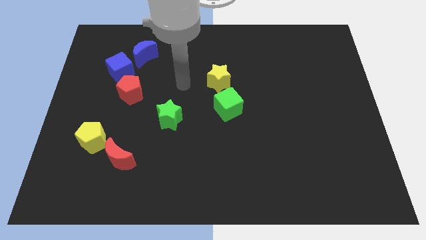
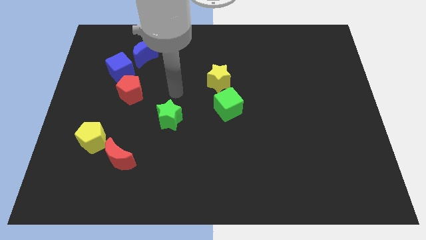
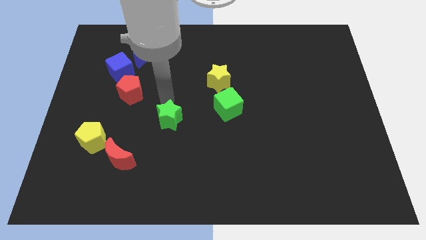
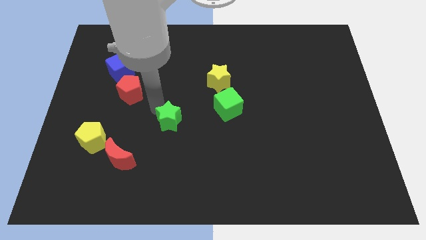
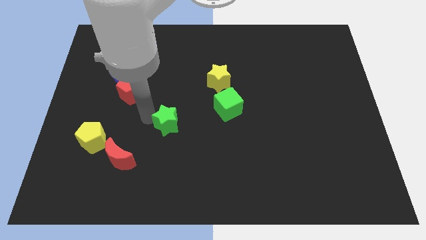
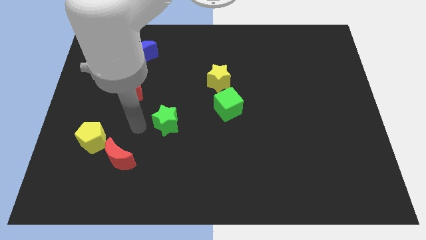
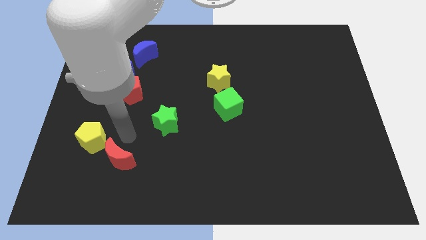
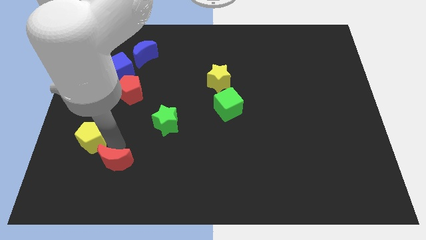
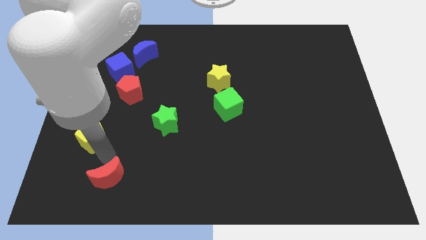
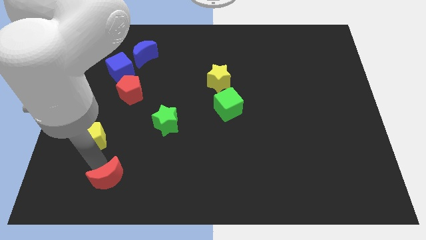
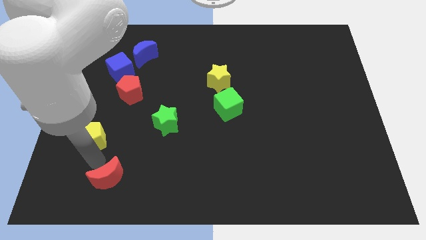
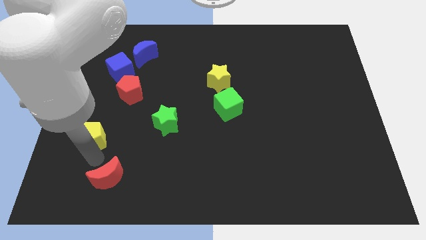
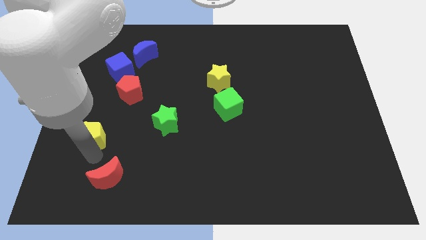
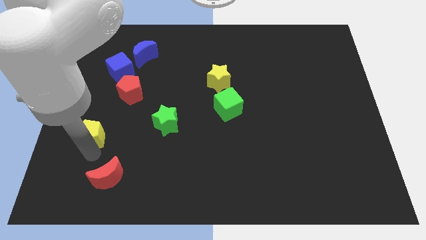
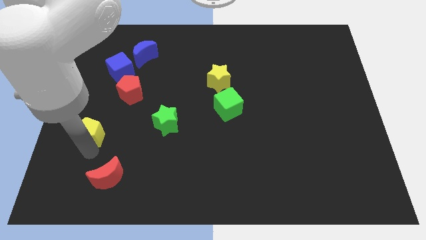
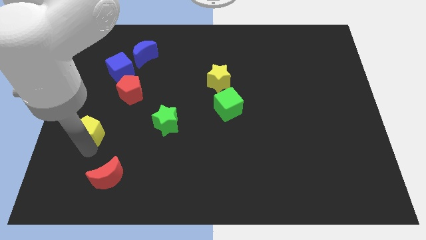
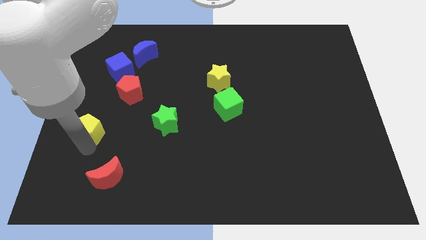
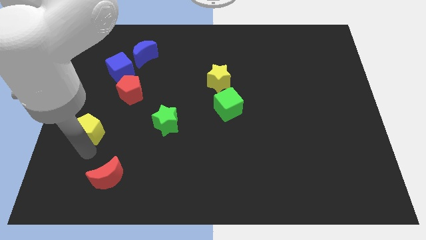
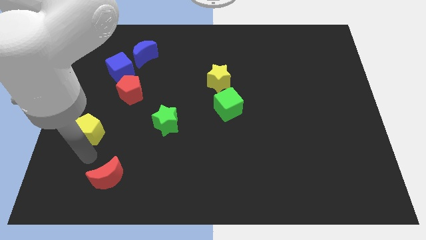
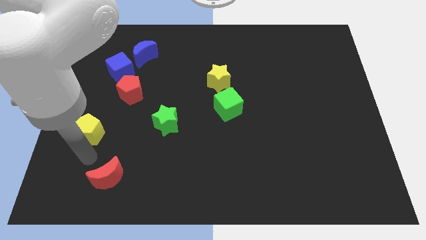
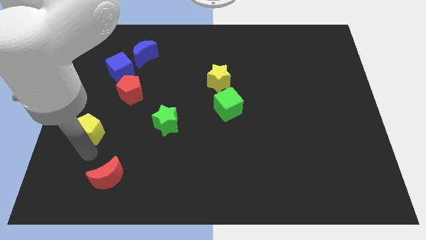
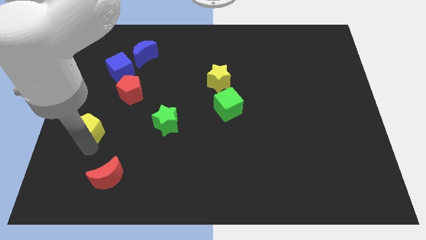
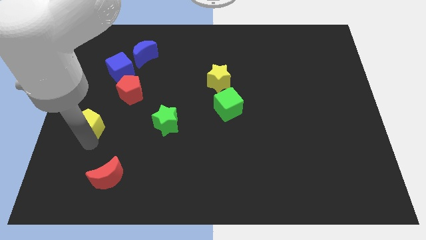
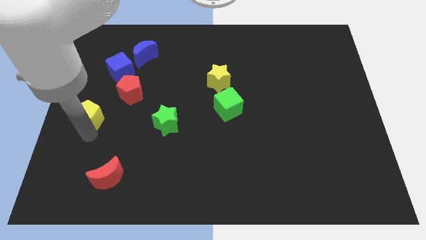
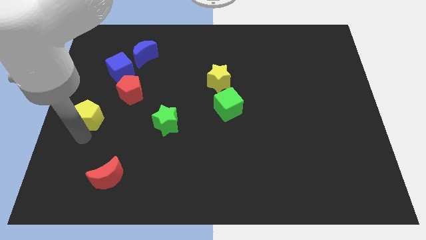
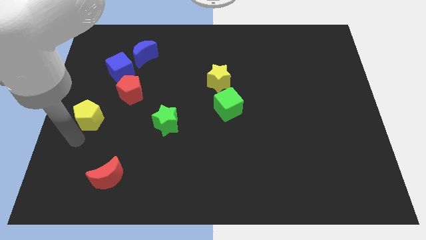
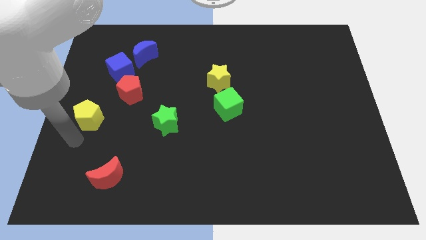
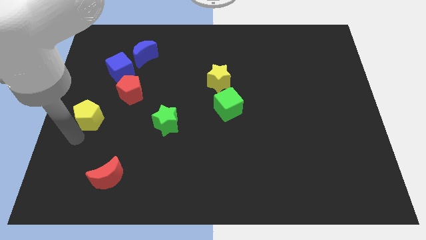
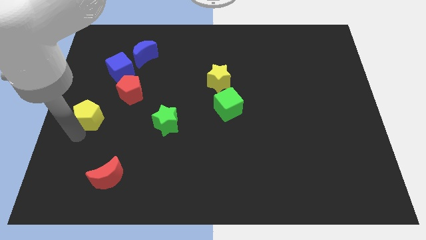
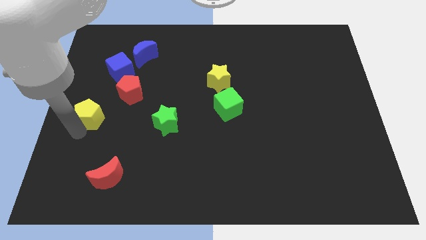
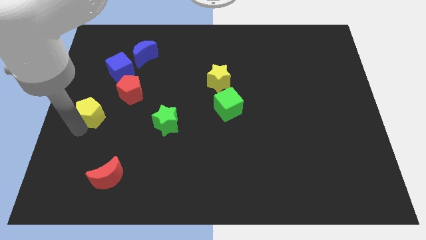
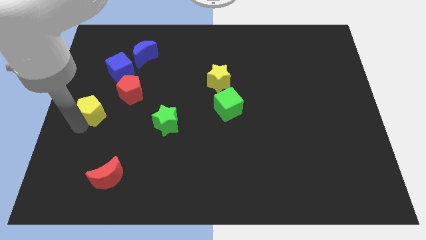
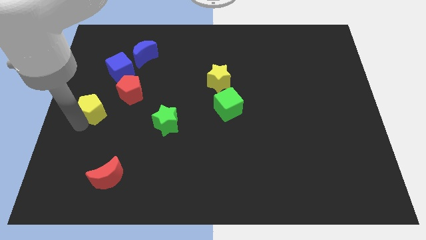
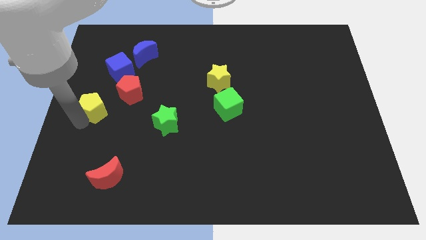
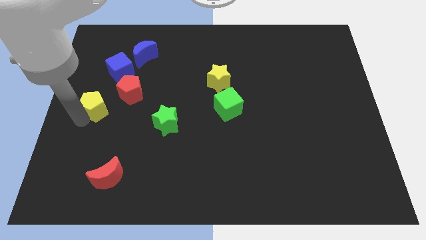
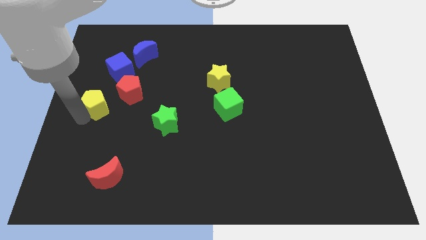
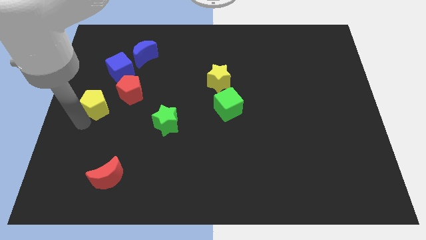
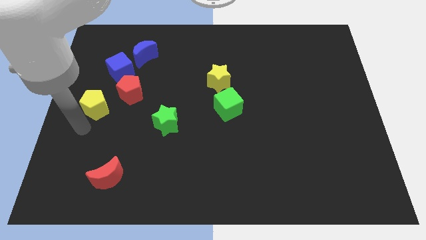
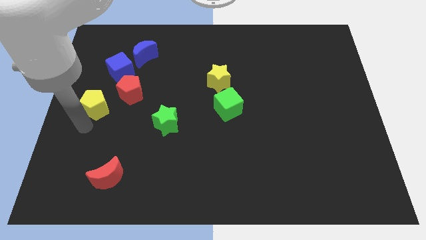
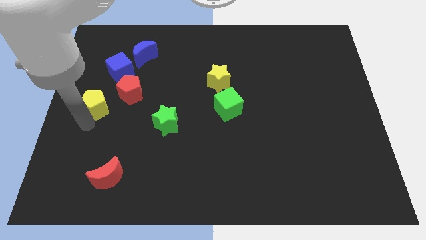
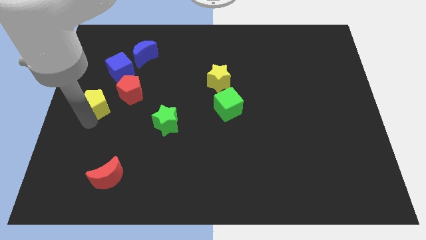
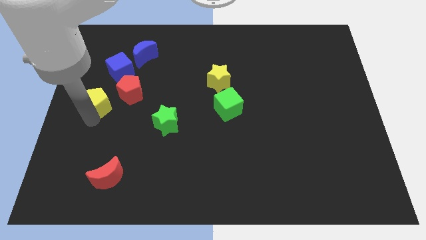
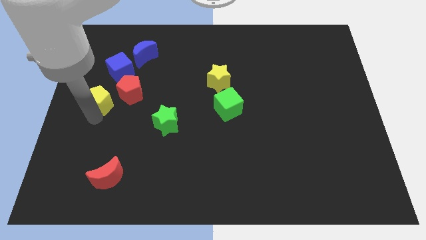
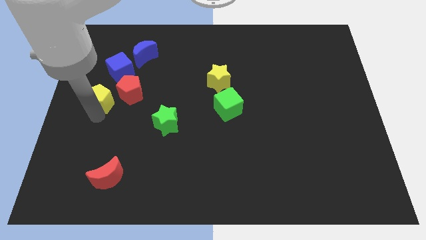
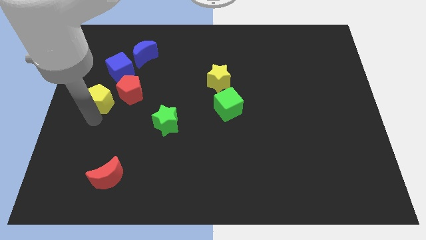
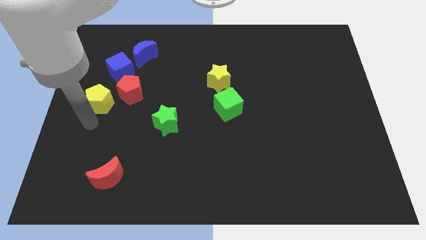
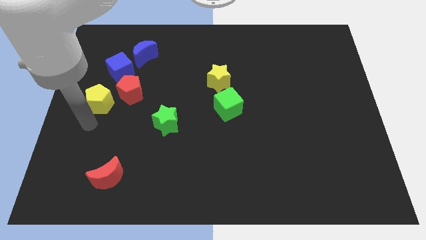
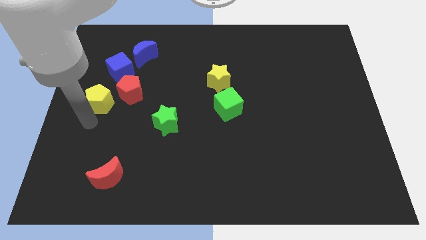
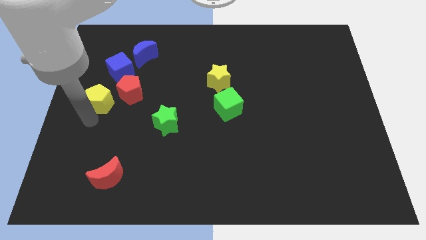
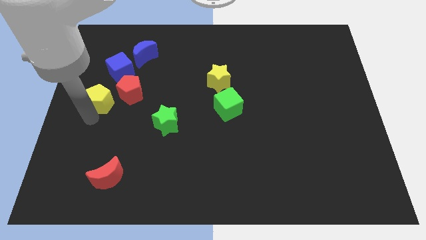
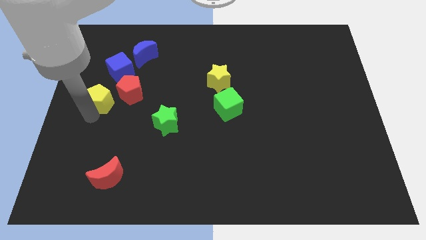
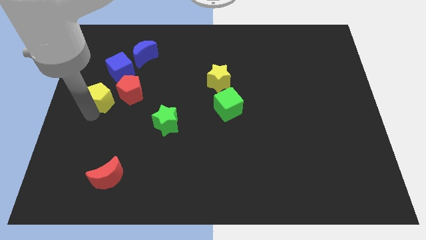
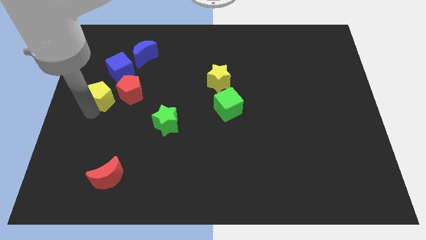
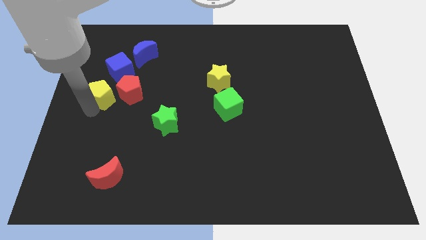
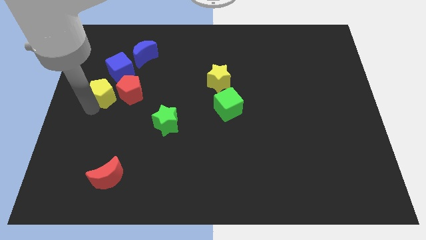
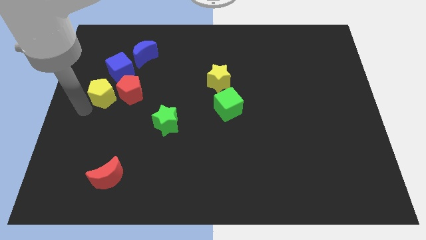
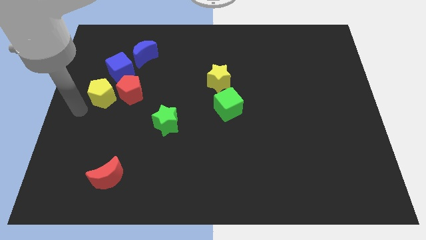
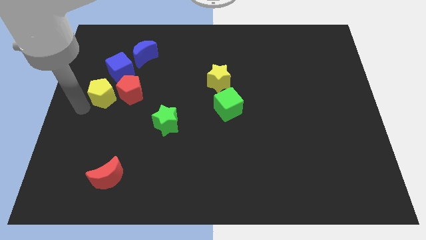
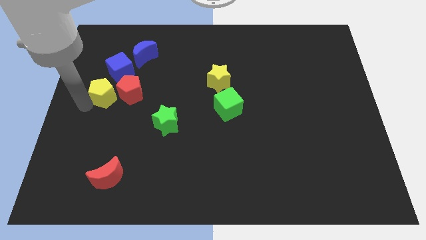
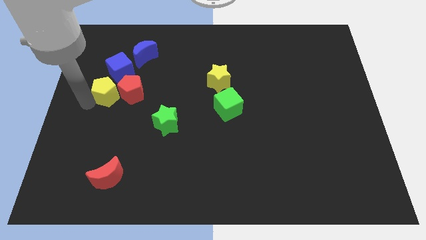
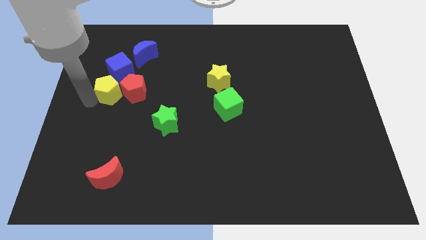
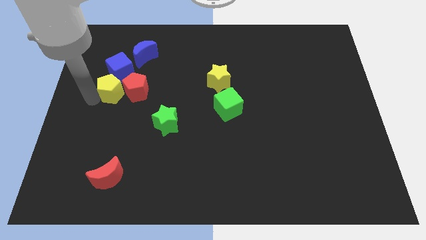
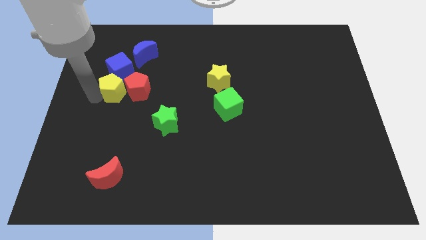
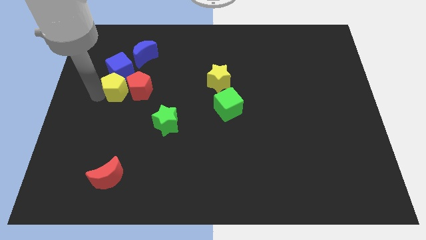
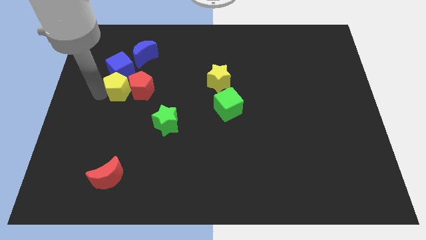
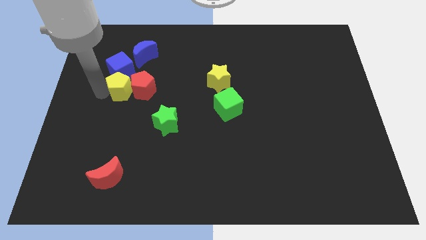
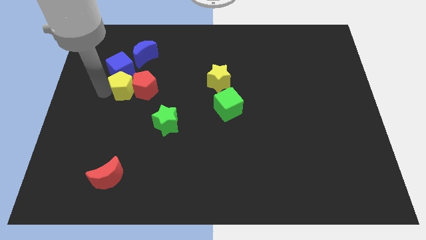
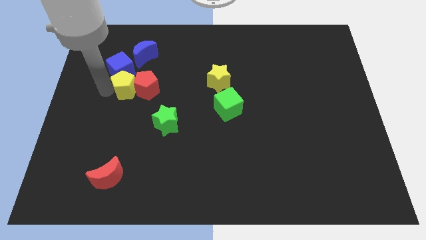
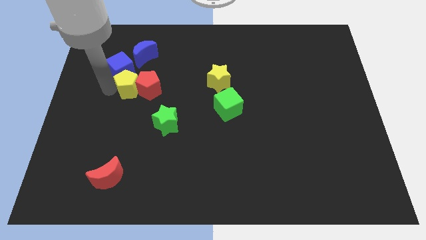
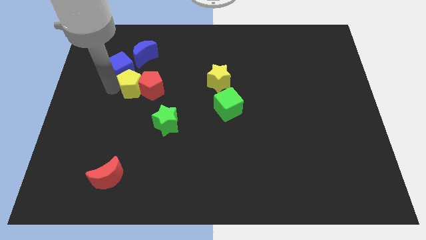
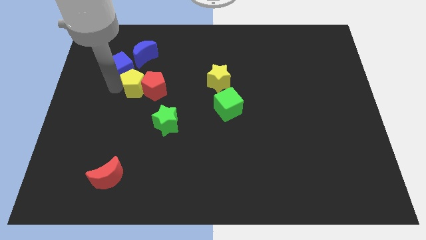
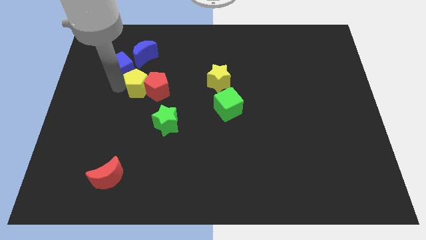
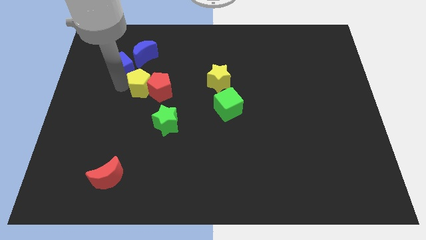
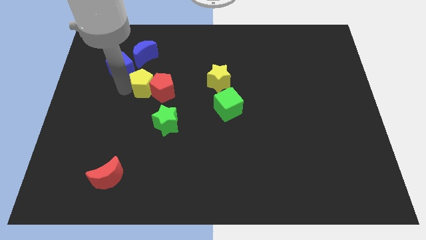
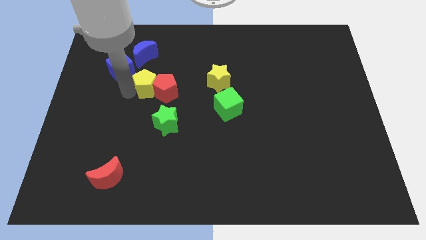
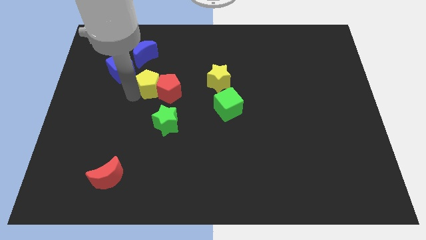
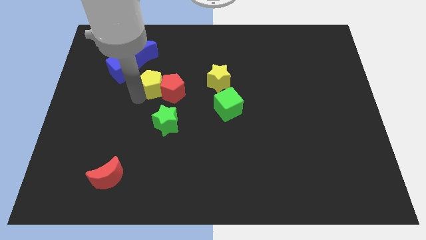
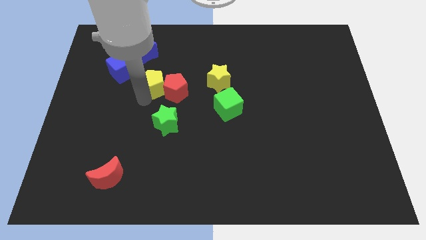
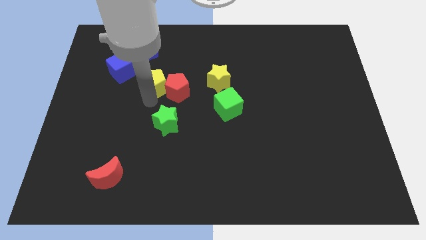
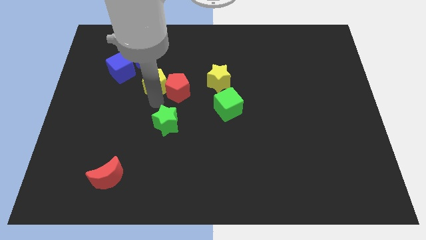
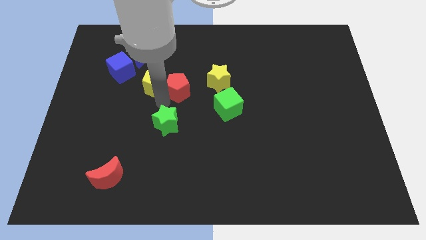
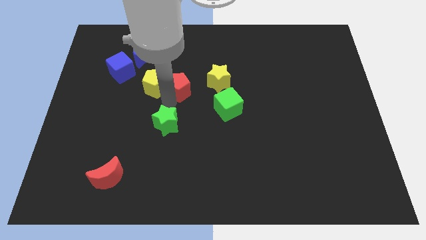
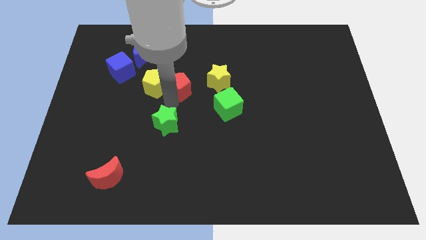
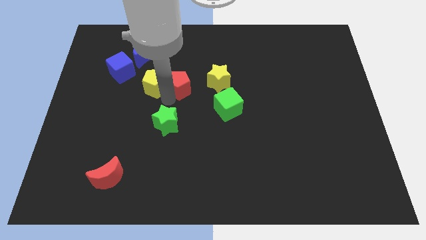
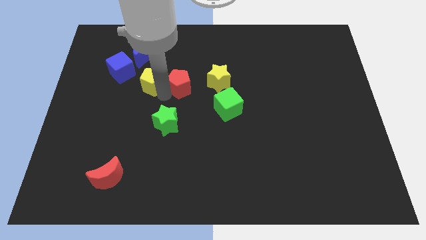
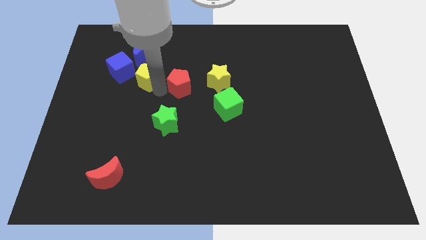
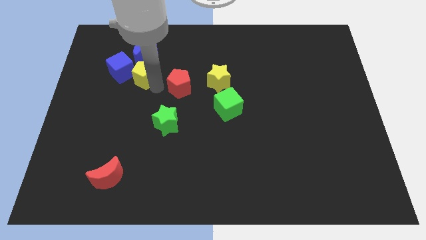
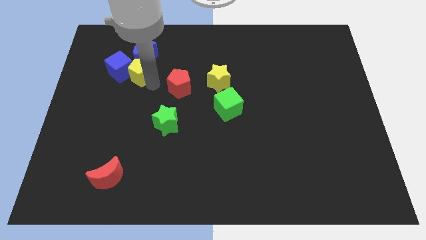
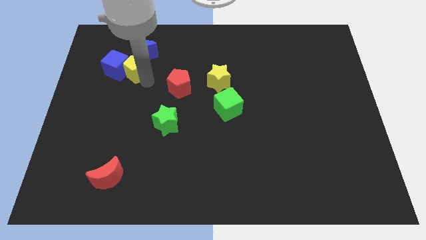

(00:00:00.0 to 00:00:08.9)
move the yellow pentagon close to the blue moon
